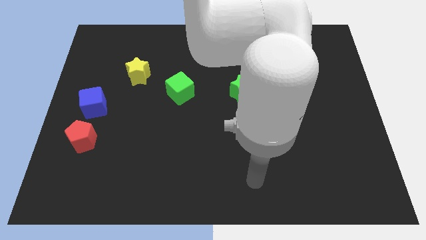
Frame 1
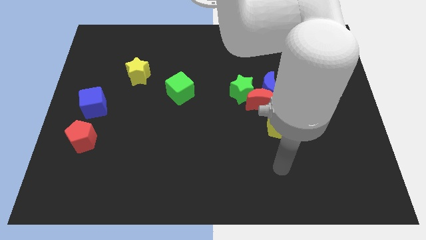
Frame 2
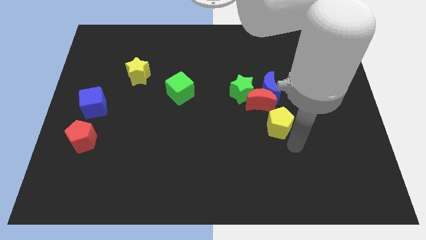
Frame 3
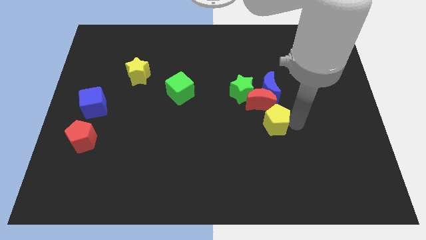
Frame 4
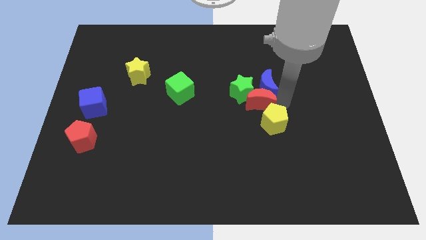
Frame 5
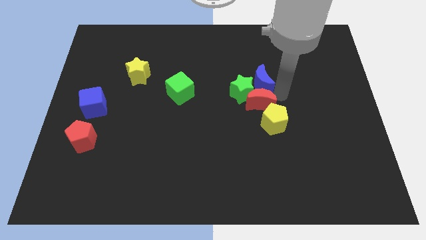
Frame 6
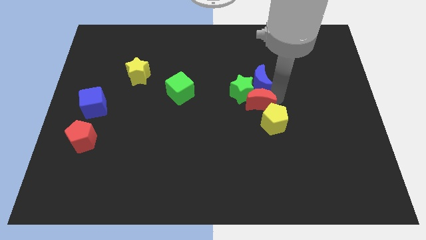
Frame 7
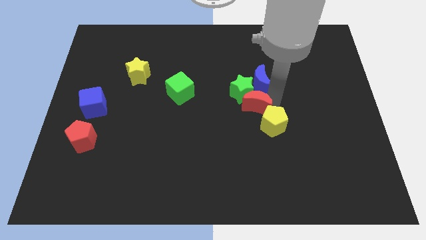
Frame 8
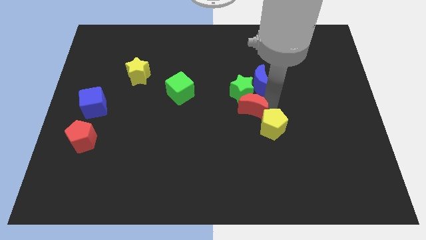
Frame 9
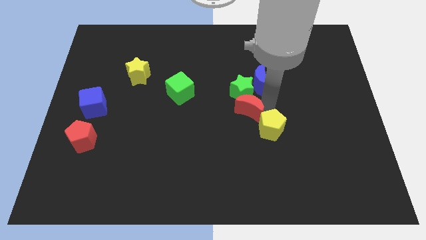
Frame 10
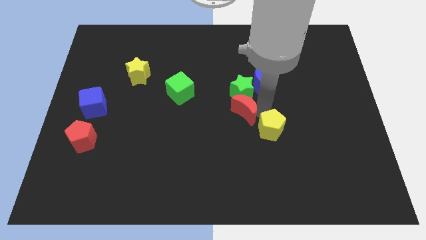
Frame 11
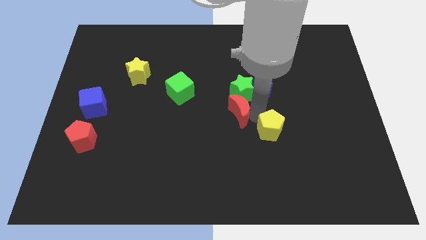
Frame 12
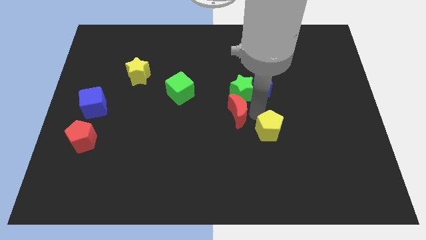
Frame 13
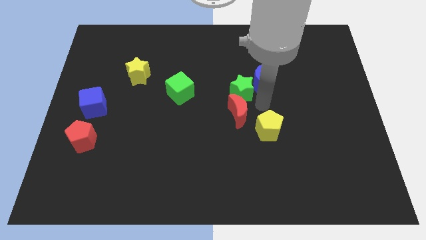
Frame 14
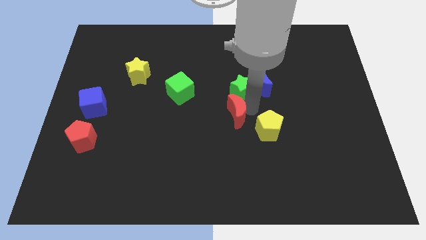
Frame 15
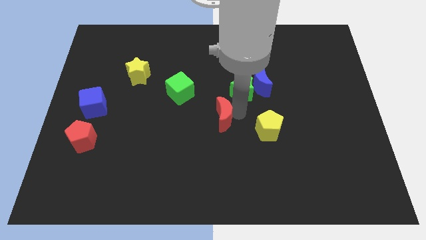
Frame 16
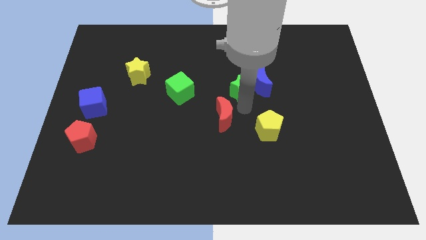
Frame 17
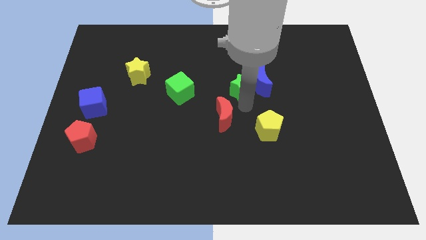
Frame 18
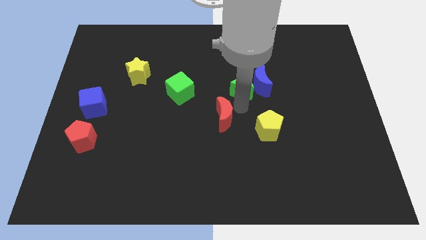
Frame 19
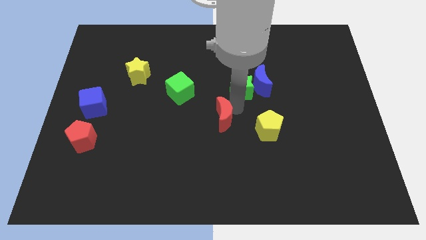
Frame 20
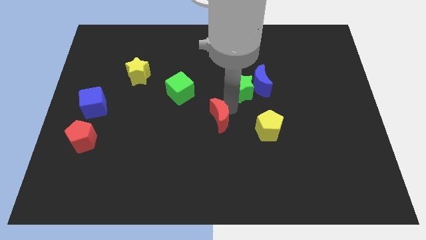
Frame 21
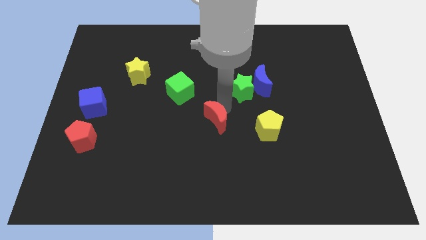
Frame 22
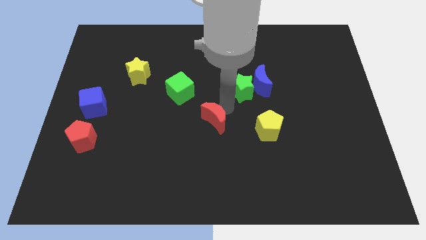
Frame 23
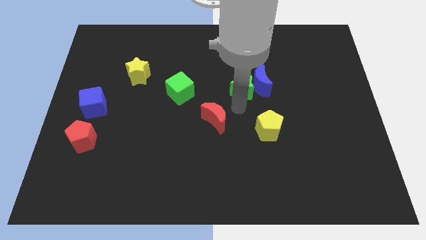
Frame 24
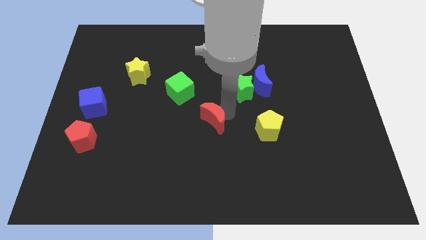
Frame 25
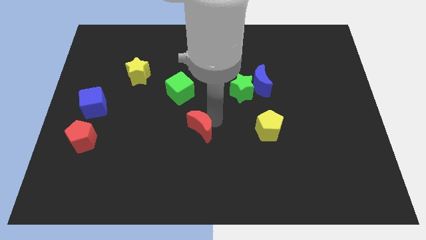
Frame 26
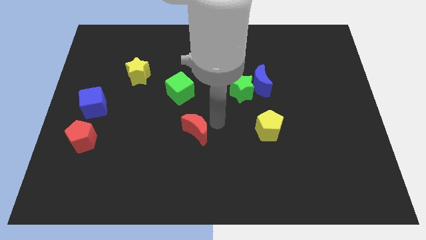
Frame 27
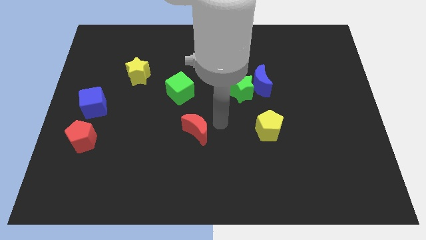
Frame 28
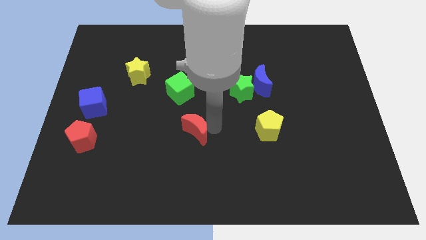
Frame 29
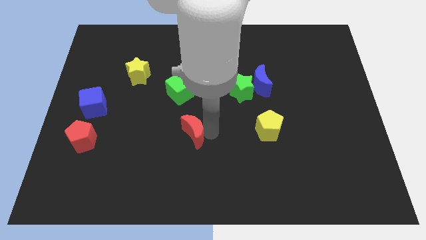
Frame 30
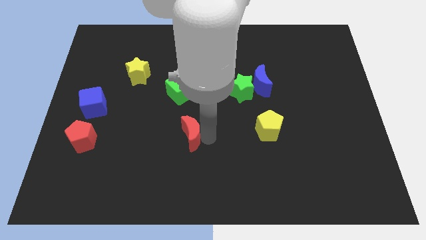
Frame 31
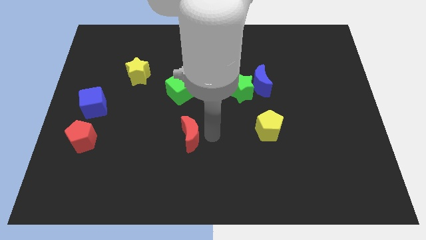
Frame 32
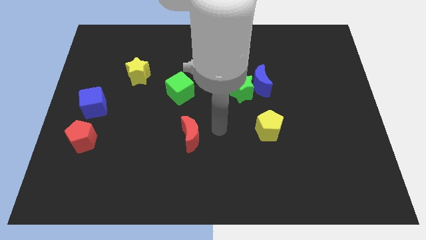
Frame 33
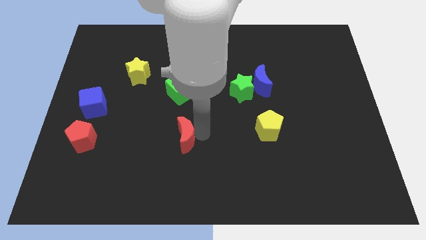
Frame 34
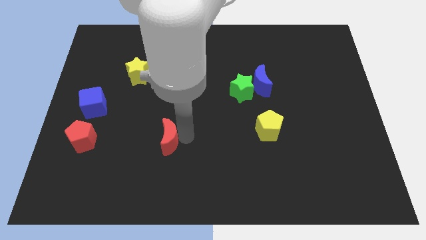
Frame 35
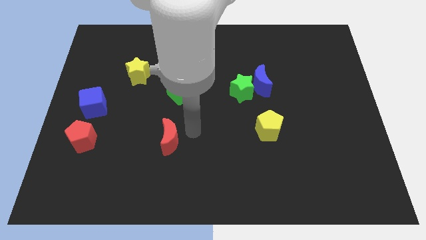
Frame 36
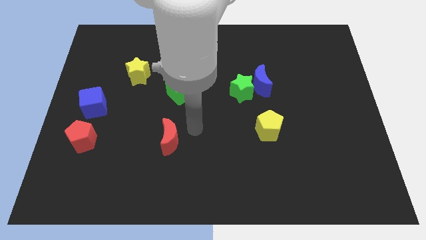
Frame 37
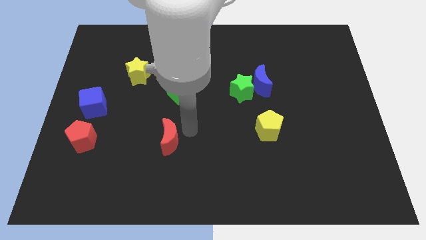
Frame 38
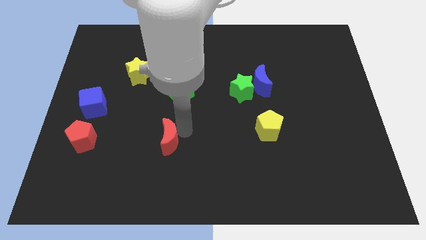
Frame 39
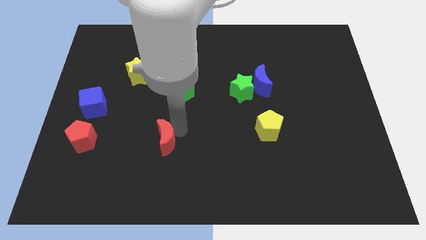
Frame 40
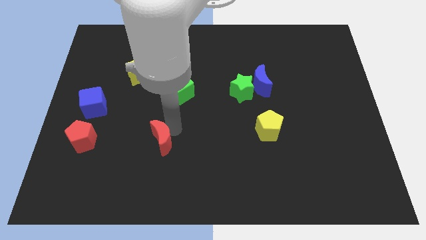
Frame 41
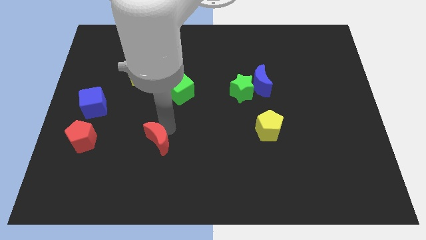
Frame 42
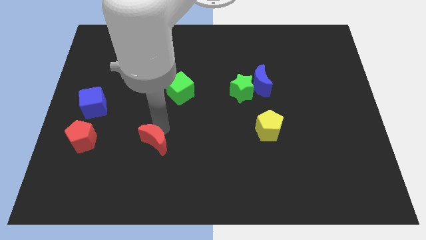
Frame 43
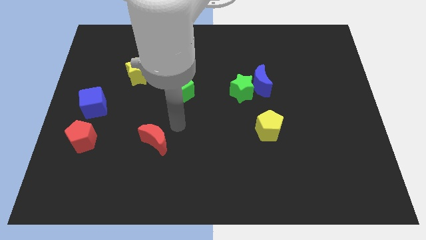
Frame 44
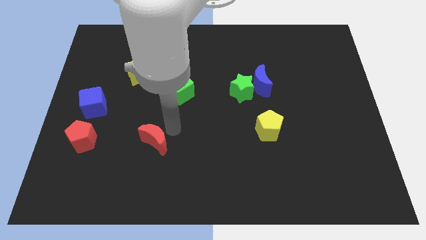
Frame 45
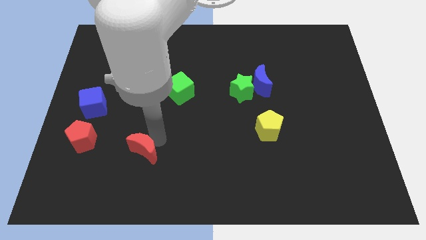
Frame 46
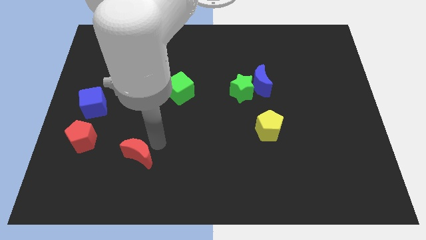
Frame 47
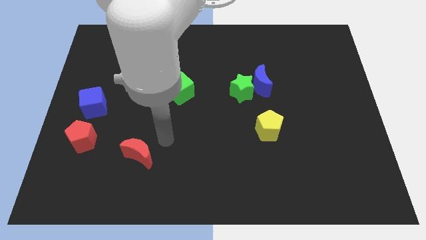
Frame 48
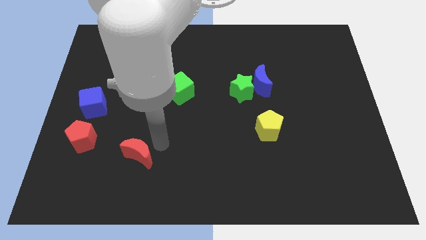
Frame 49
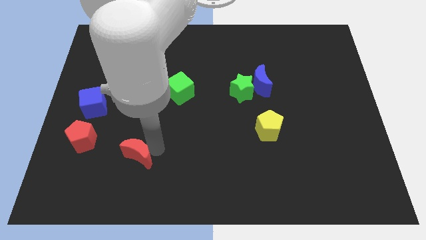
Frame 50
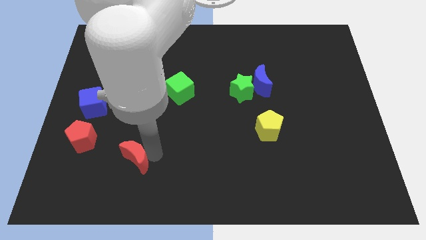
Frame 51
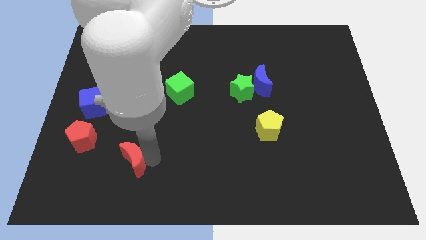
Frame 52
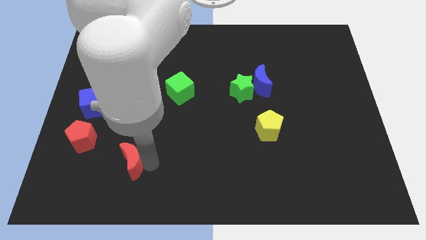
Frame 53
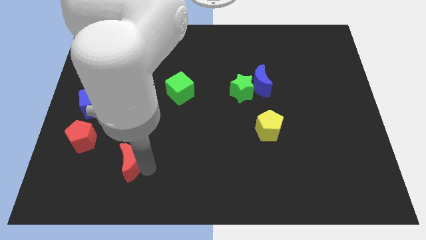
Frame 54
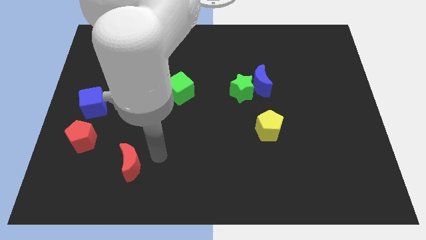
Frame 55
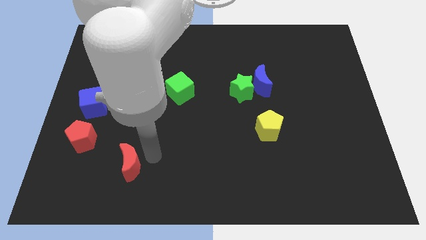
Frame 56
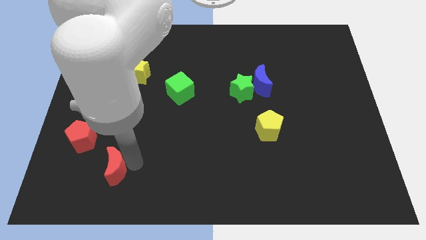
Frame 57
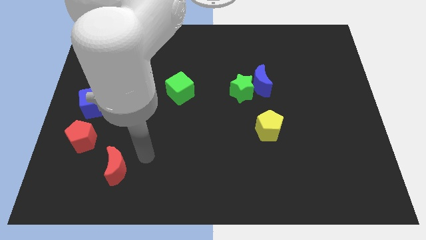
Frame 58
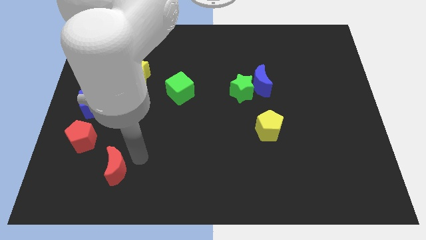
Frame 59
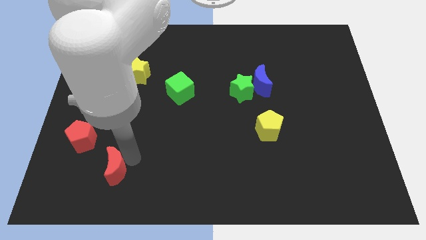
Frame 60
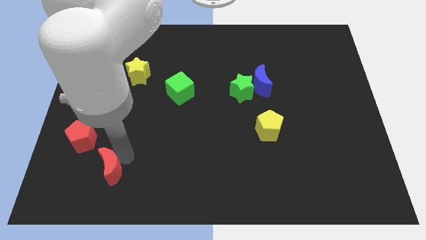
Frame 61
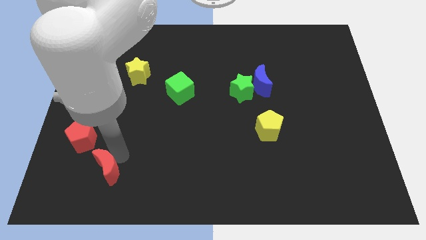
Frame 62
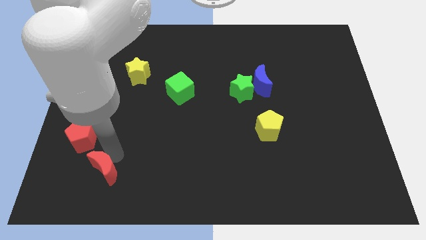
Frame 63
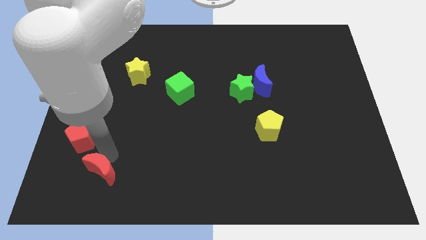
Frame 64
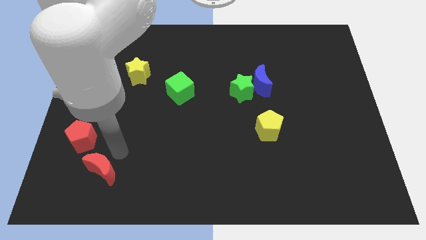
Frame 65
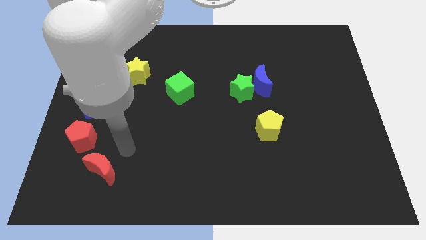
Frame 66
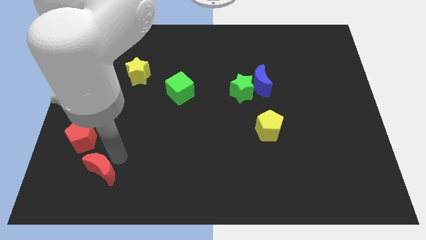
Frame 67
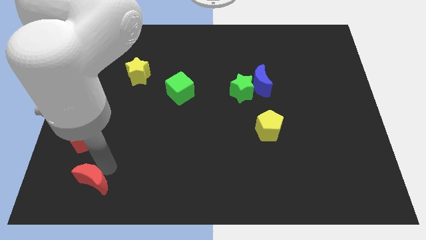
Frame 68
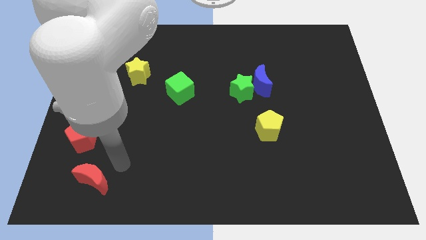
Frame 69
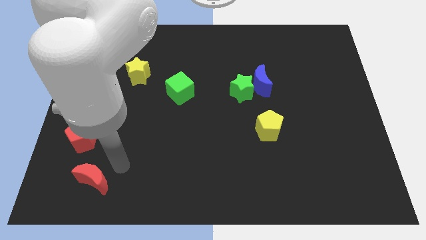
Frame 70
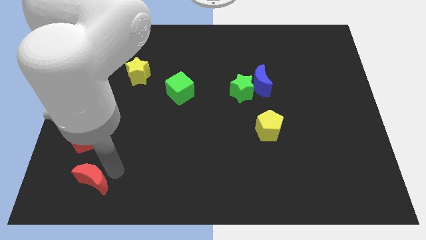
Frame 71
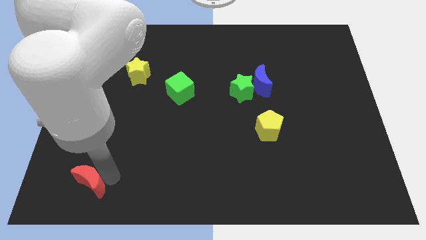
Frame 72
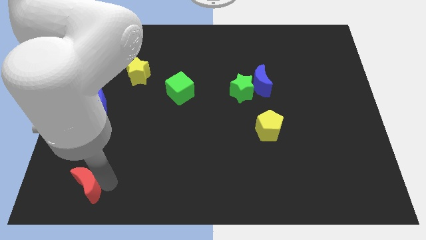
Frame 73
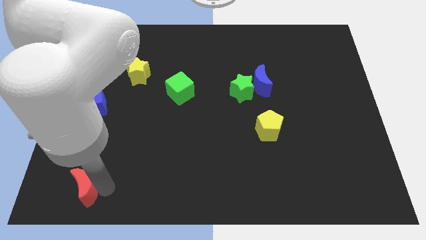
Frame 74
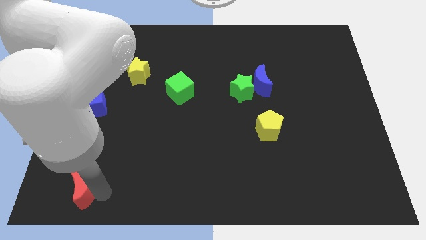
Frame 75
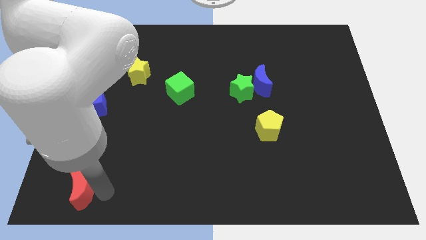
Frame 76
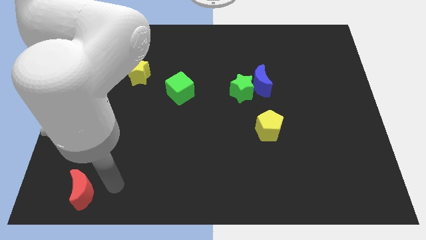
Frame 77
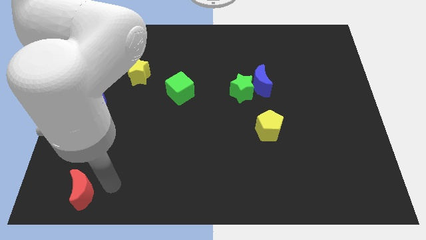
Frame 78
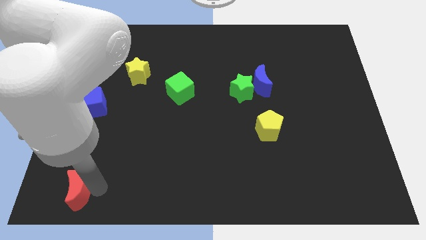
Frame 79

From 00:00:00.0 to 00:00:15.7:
put the red moon to the bottom left corner
